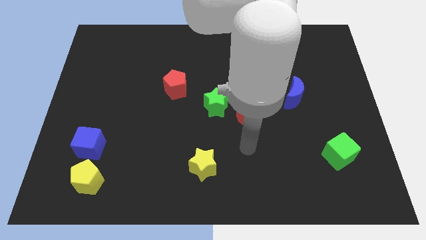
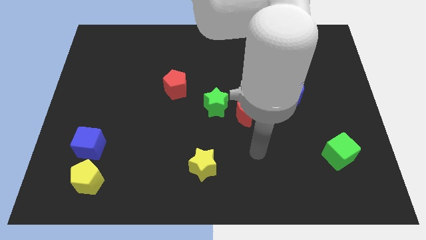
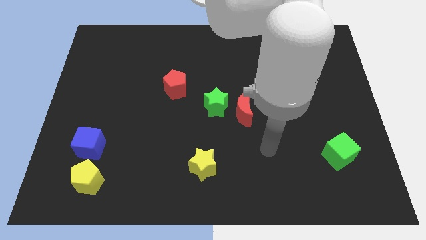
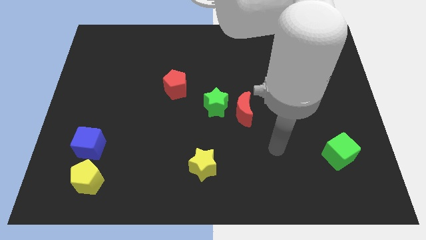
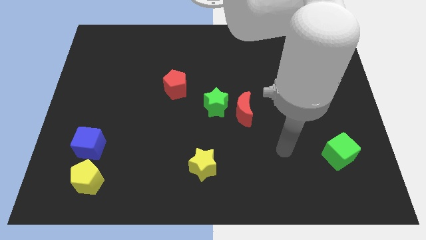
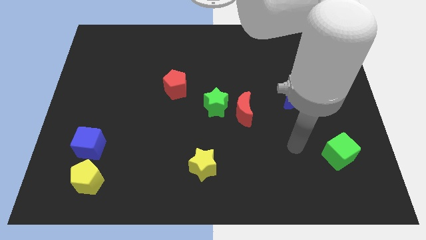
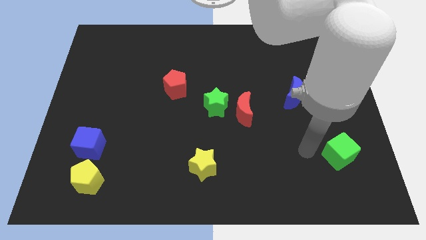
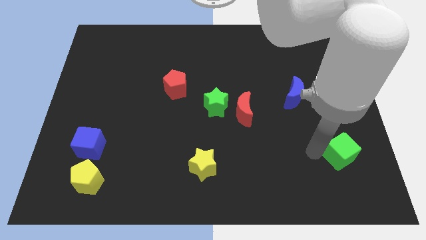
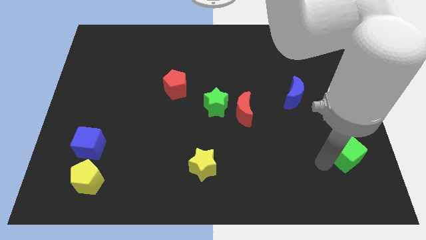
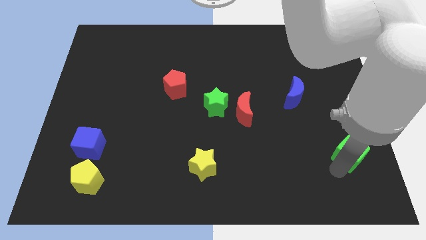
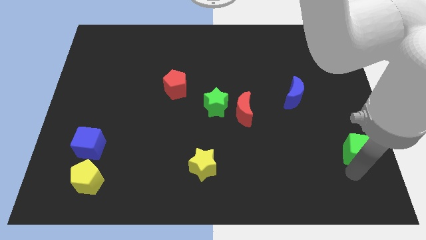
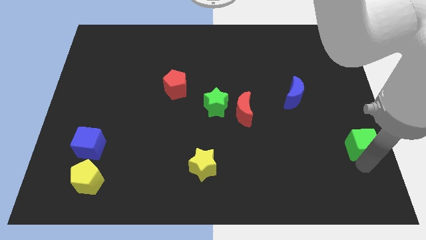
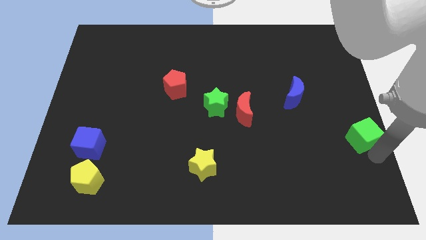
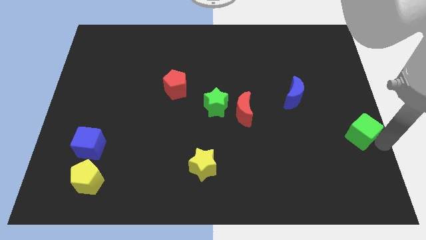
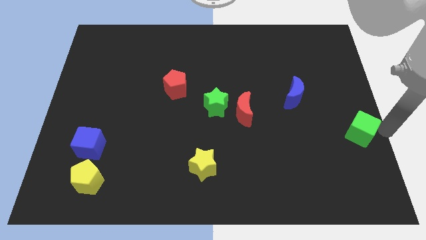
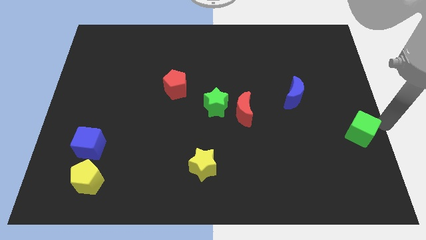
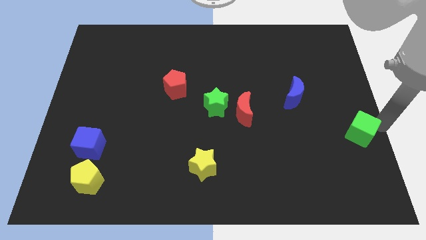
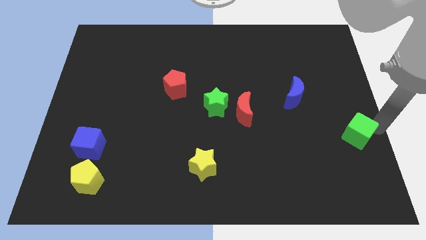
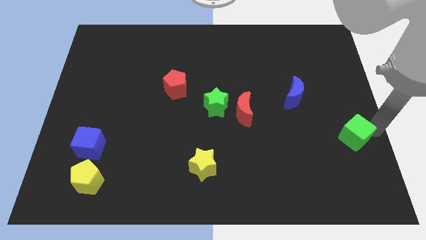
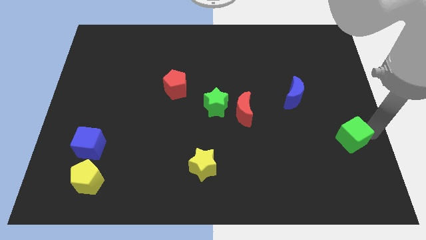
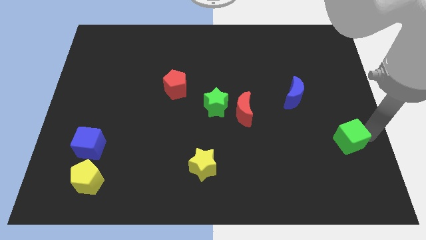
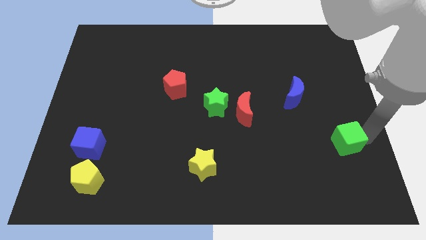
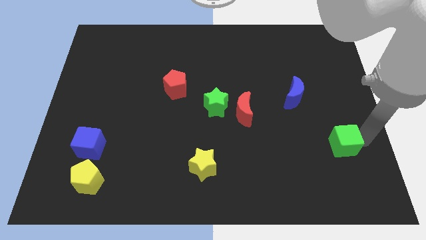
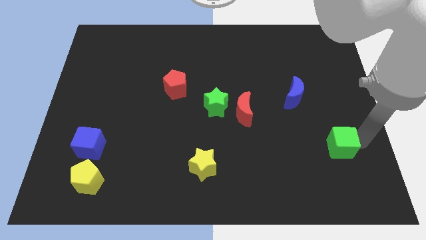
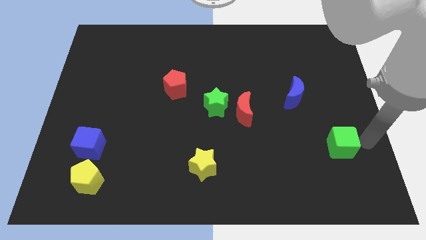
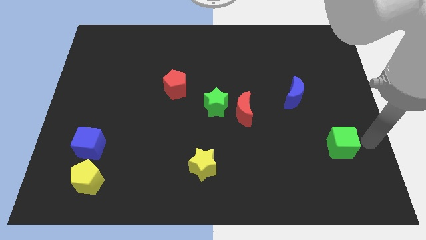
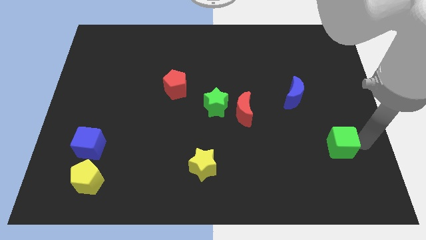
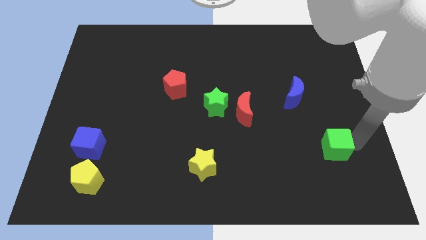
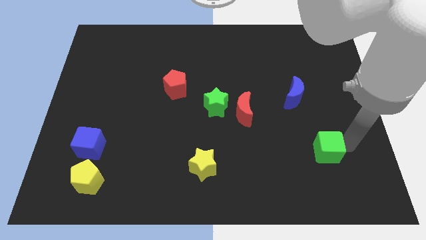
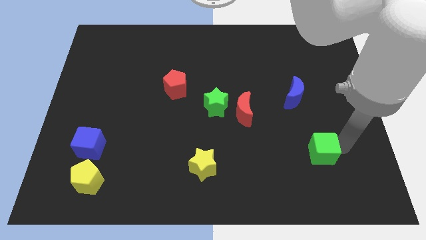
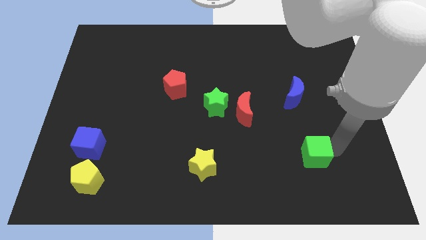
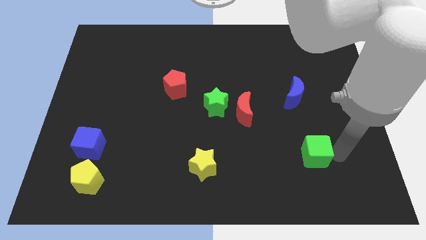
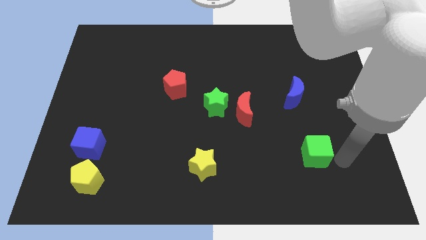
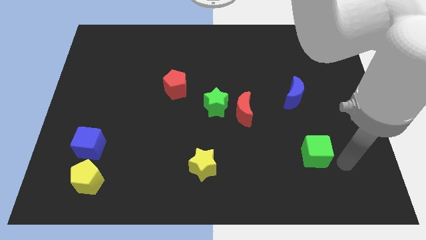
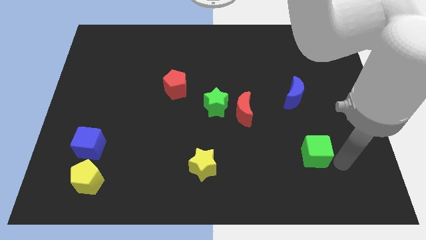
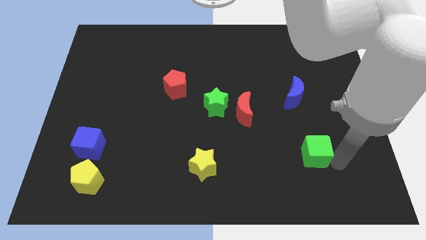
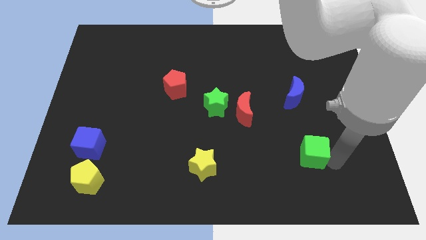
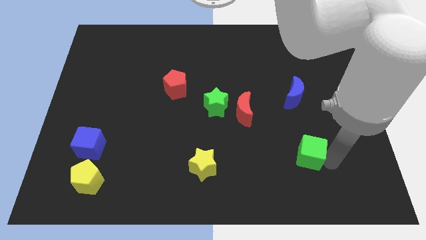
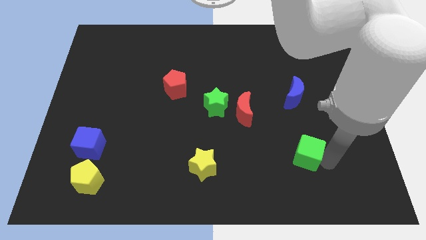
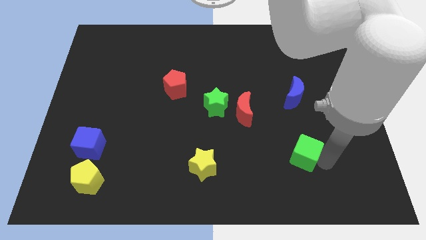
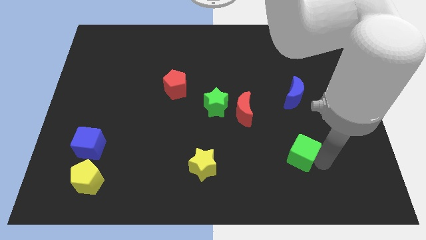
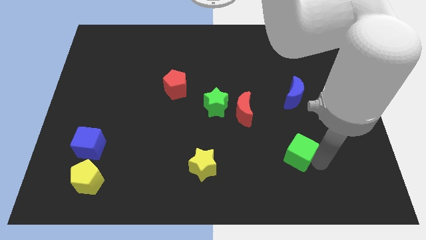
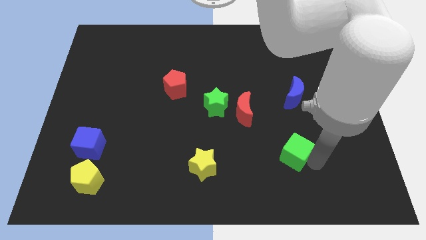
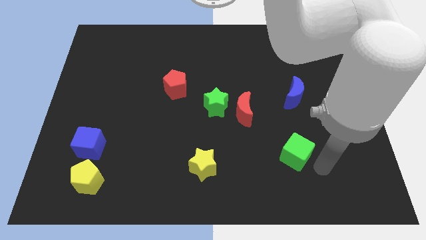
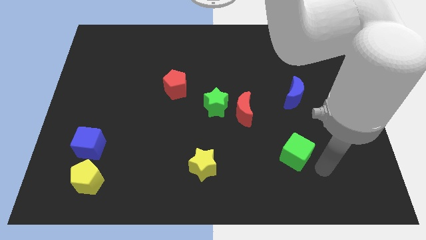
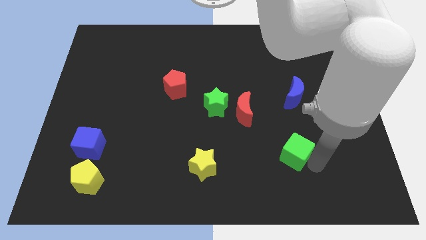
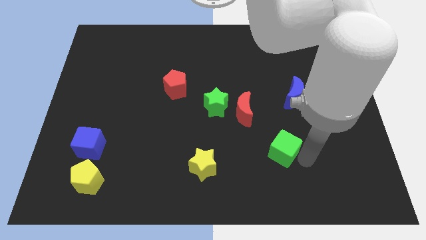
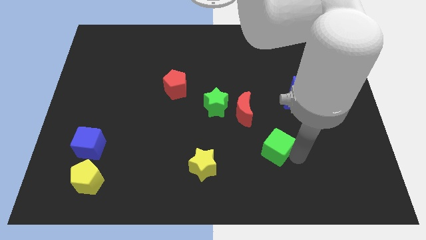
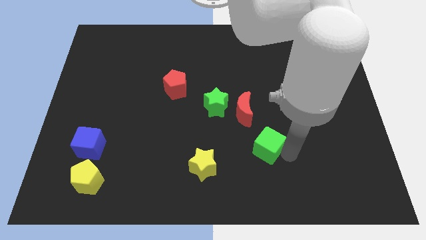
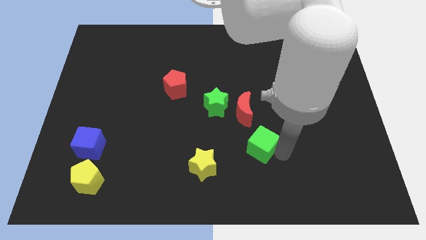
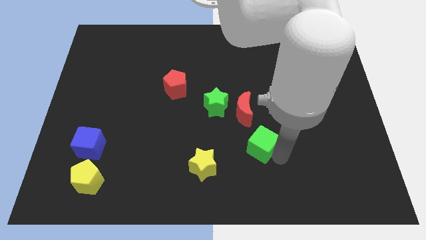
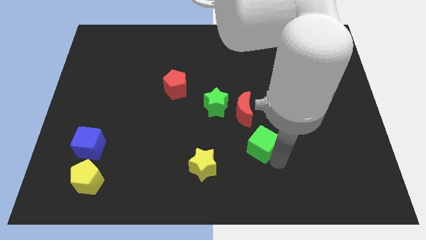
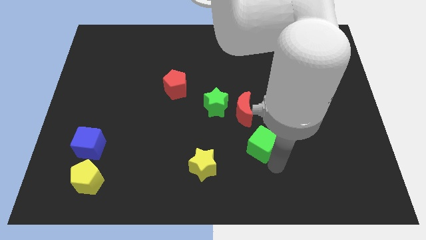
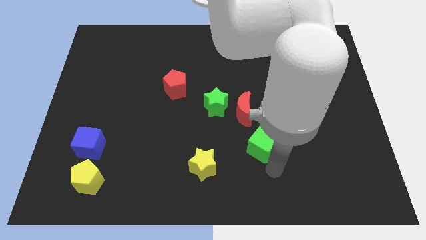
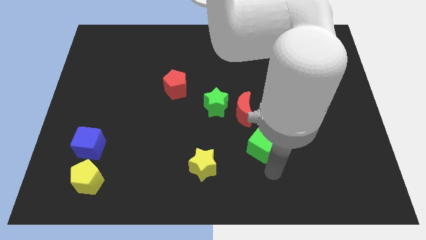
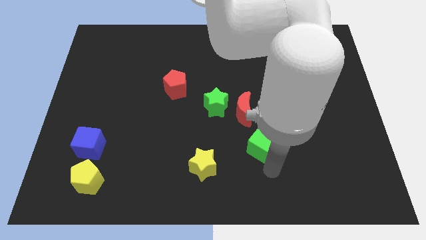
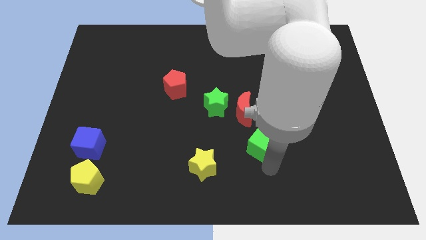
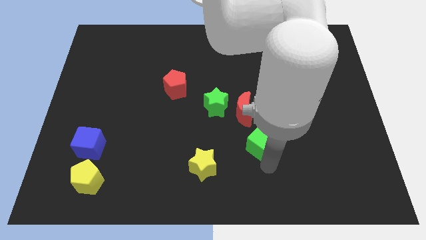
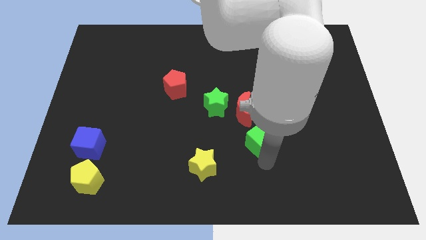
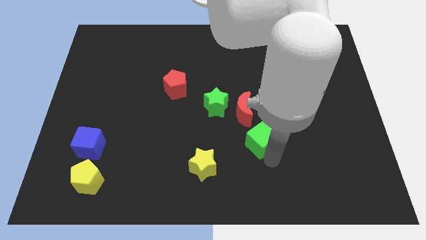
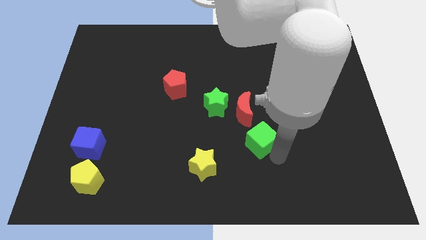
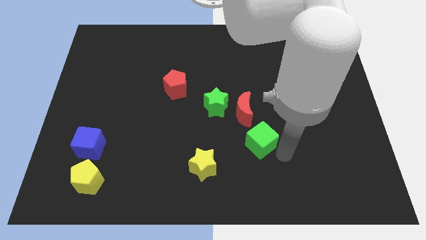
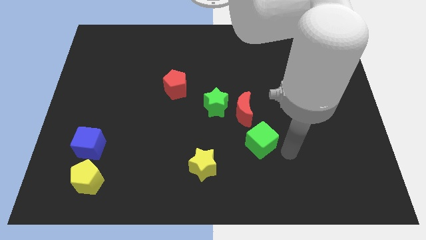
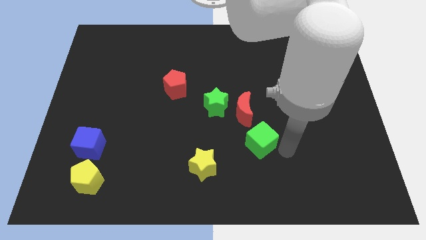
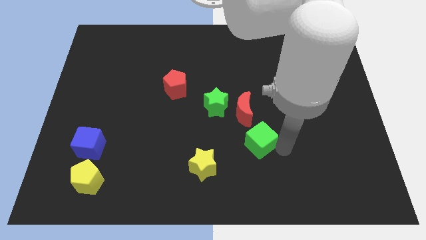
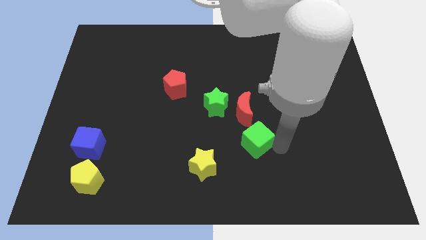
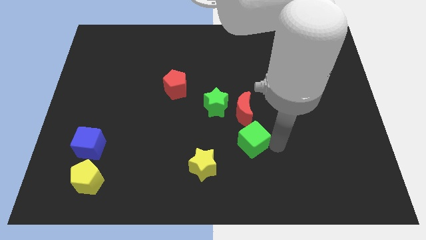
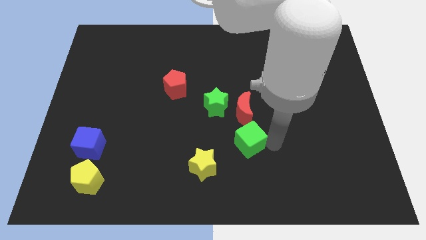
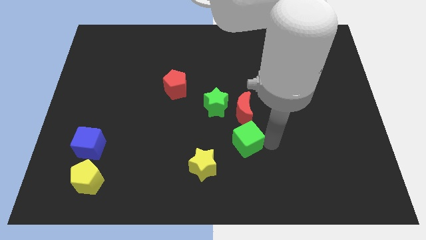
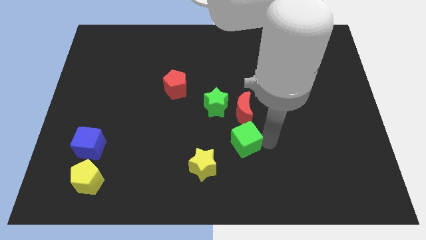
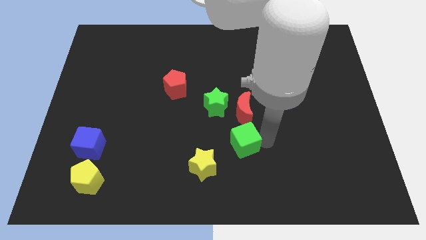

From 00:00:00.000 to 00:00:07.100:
move the green cube to the left

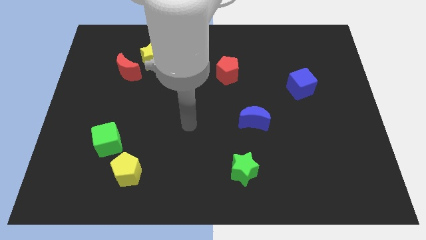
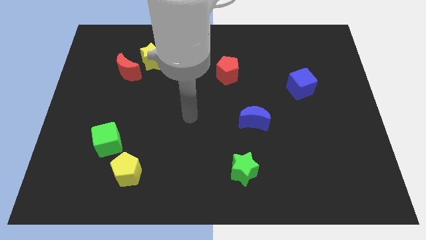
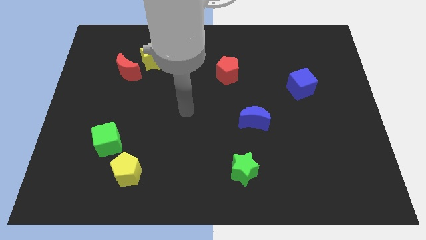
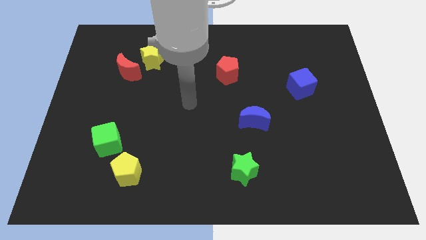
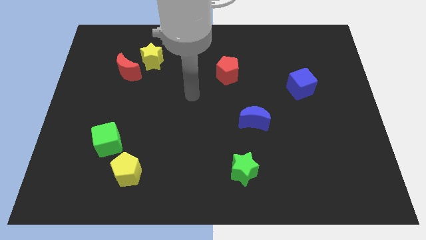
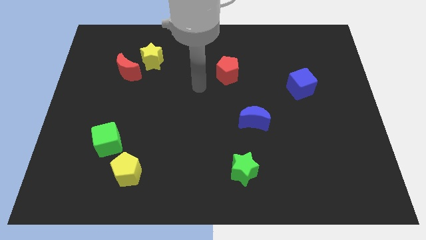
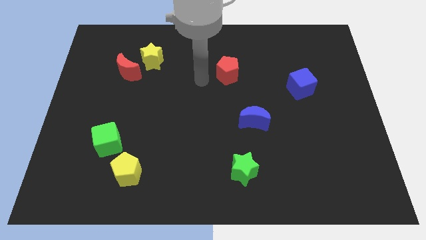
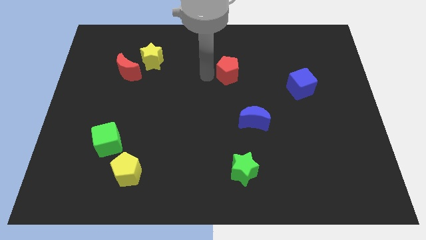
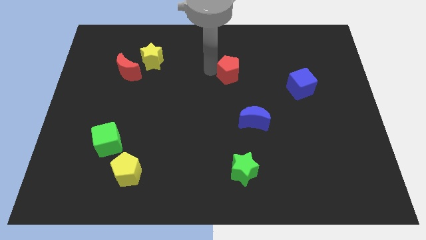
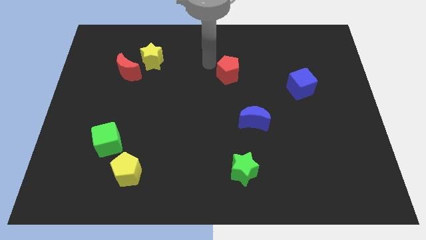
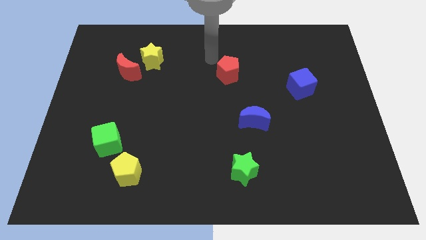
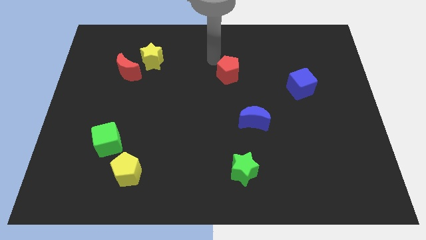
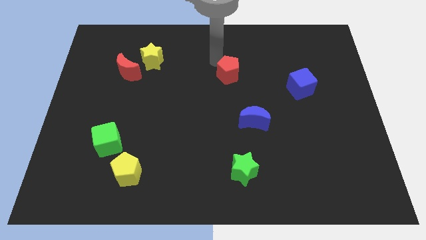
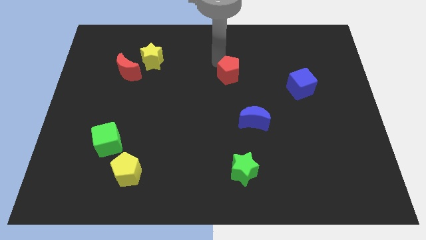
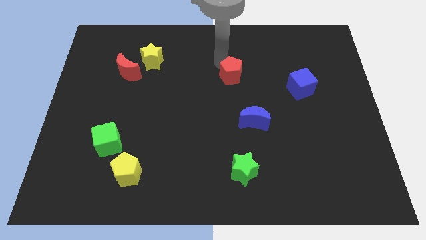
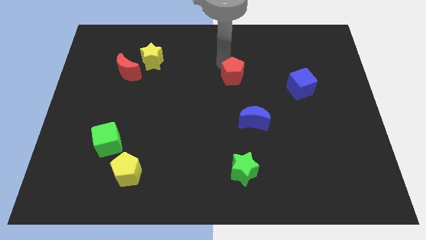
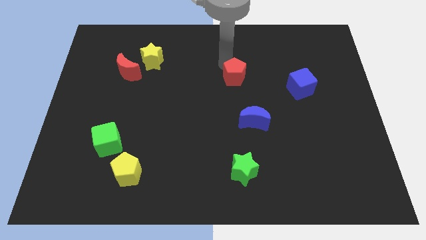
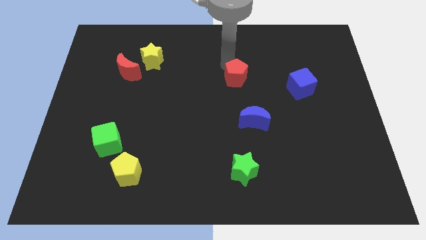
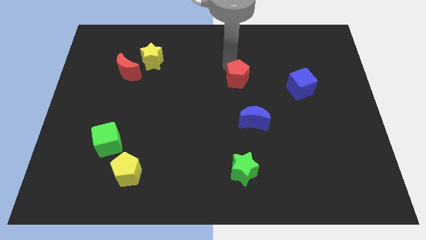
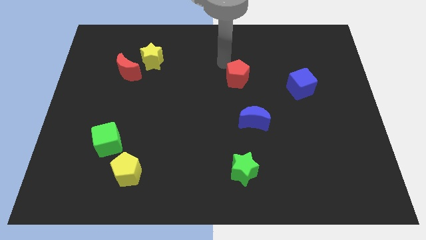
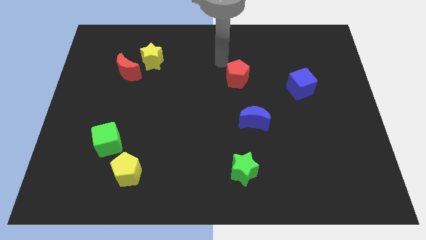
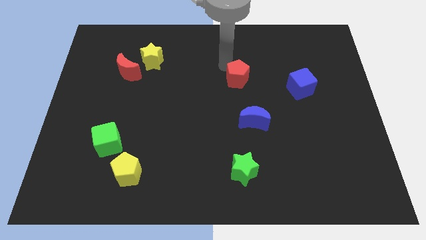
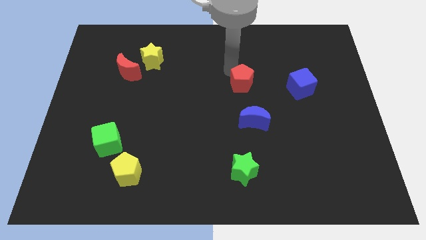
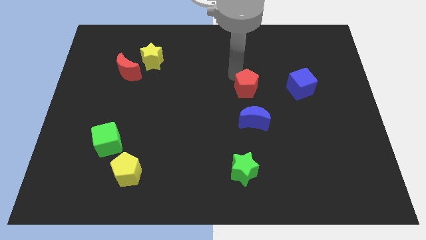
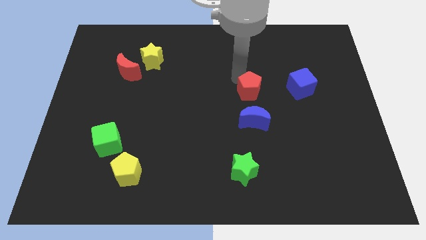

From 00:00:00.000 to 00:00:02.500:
slightly move the red pentagon downwards and right diagonally
